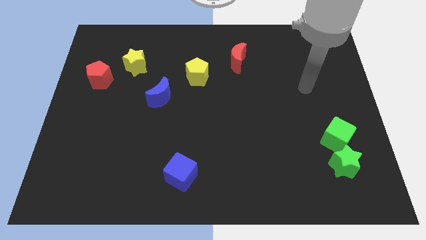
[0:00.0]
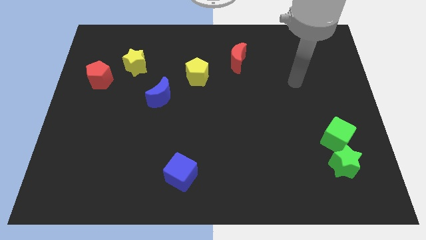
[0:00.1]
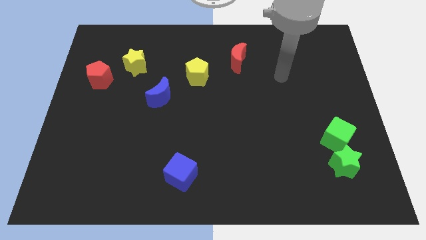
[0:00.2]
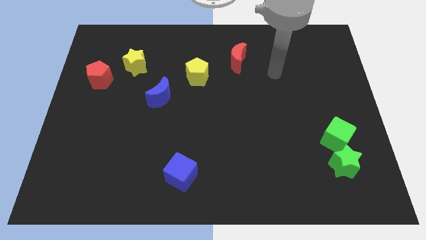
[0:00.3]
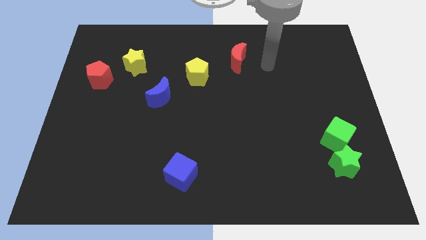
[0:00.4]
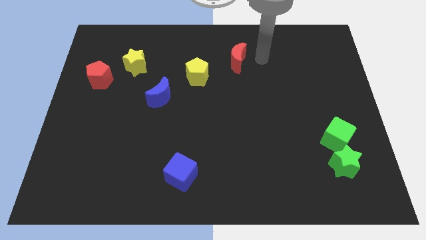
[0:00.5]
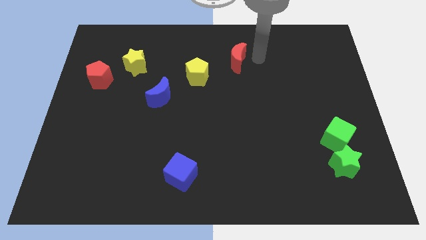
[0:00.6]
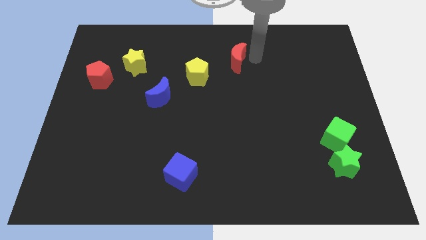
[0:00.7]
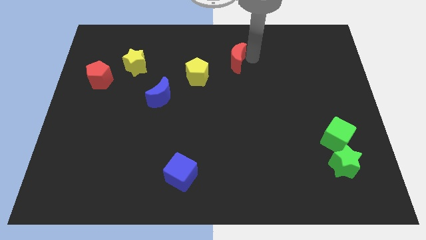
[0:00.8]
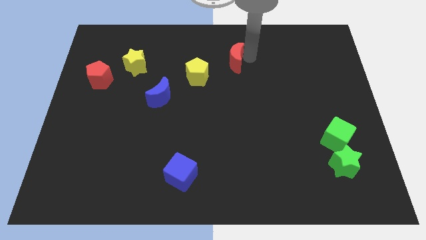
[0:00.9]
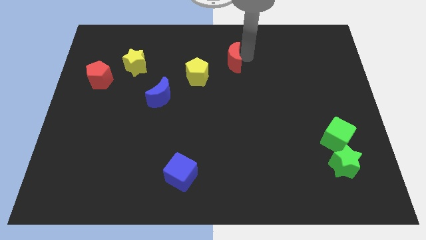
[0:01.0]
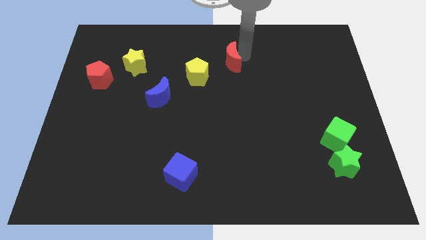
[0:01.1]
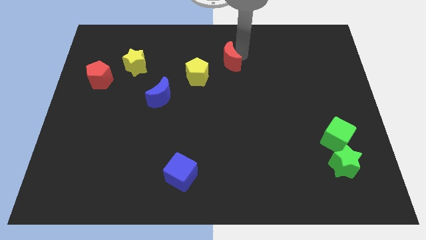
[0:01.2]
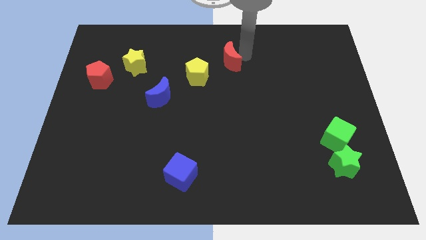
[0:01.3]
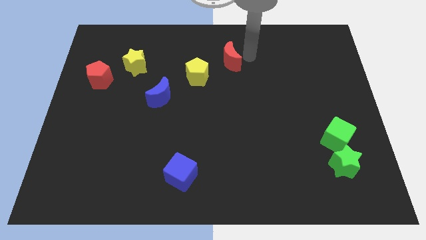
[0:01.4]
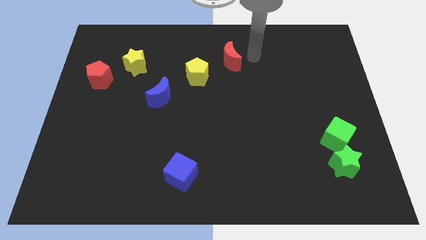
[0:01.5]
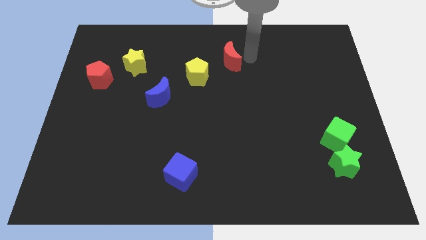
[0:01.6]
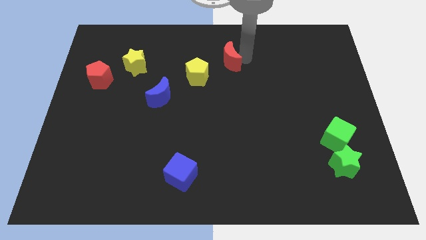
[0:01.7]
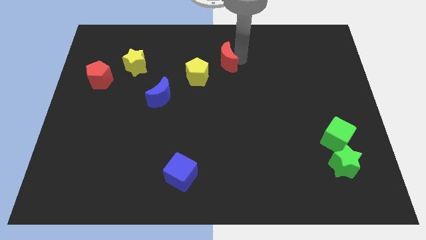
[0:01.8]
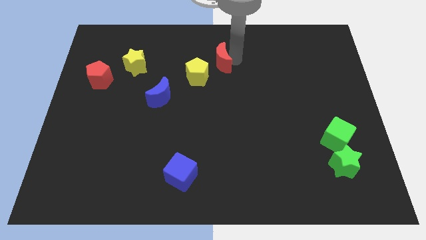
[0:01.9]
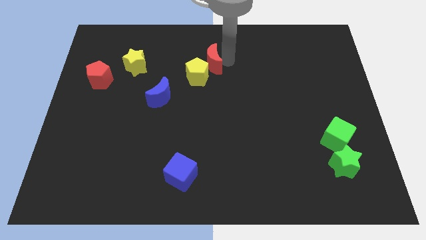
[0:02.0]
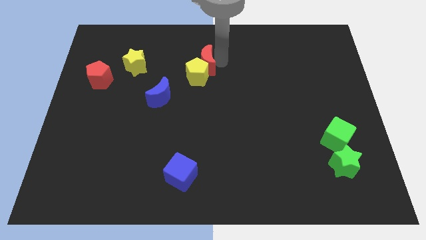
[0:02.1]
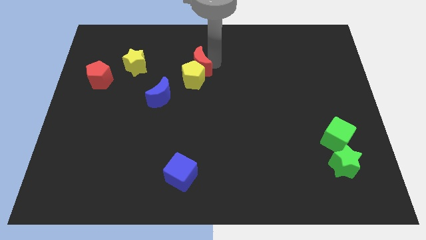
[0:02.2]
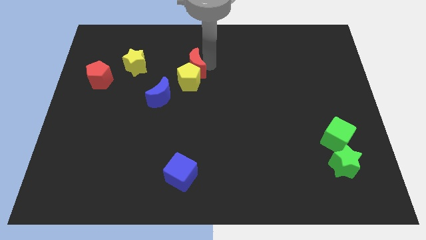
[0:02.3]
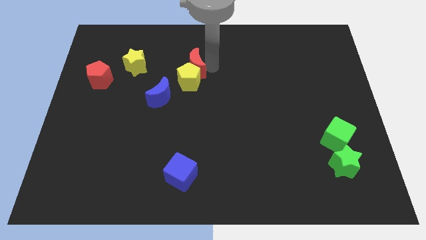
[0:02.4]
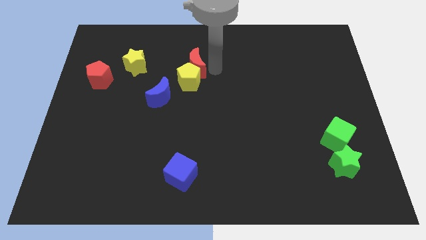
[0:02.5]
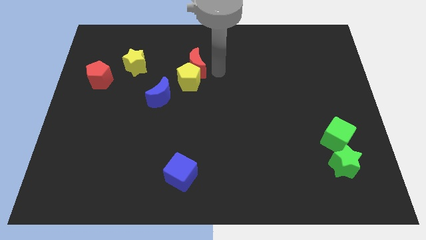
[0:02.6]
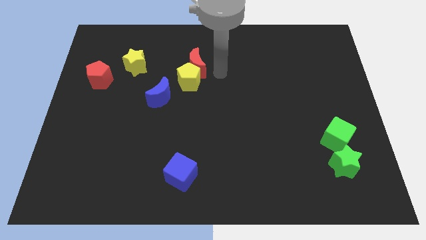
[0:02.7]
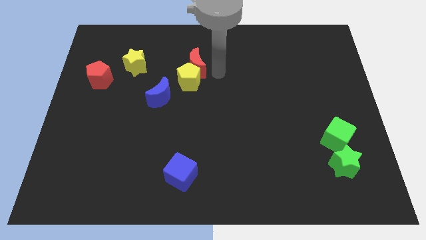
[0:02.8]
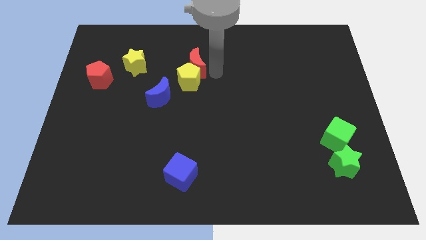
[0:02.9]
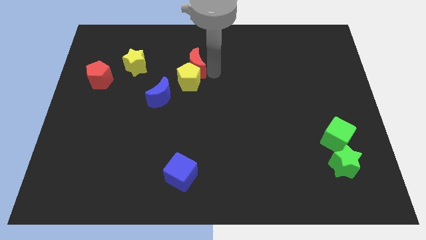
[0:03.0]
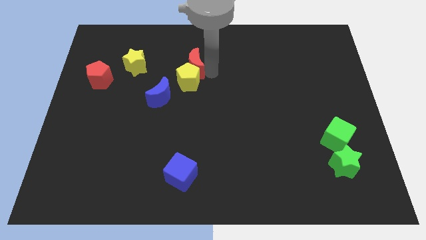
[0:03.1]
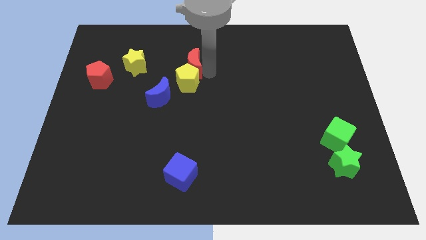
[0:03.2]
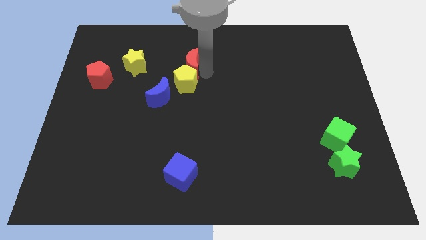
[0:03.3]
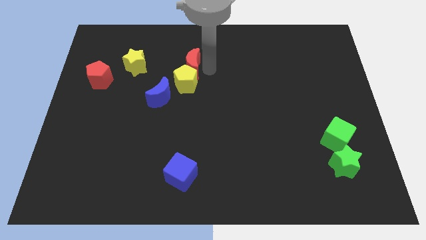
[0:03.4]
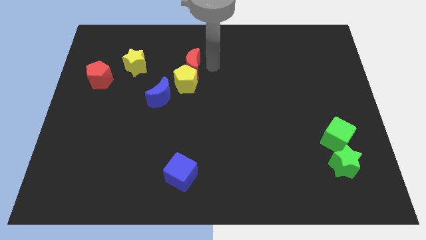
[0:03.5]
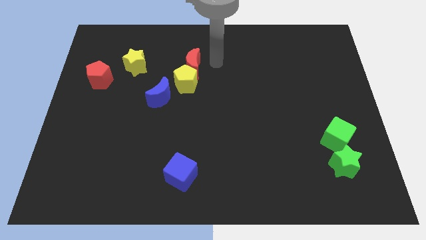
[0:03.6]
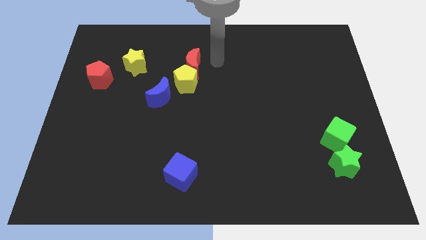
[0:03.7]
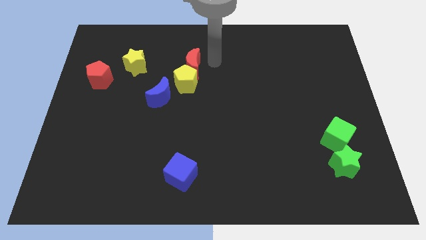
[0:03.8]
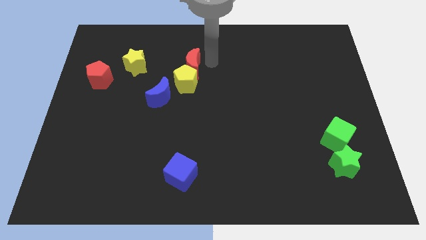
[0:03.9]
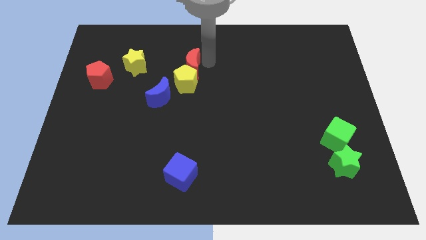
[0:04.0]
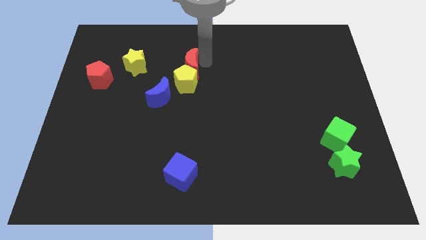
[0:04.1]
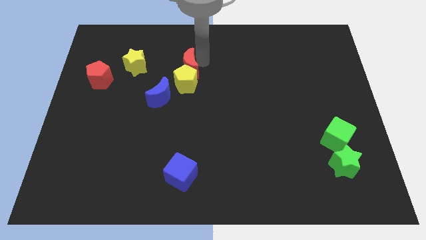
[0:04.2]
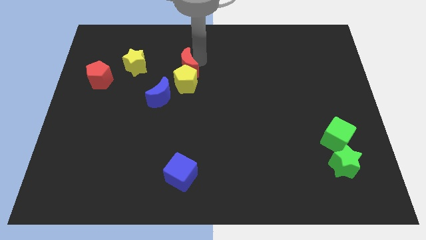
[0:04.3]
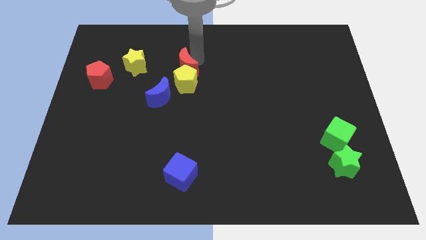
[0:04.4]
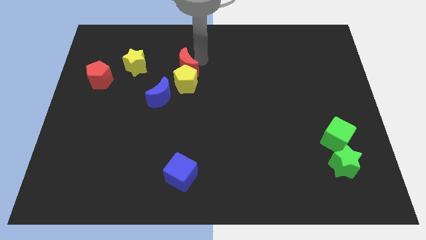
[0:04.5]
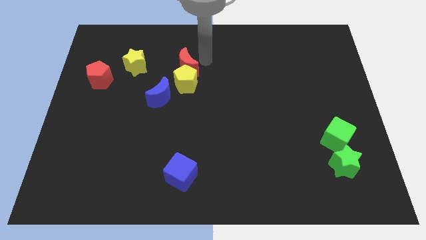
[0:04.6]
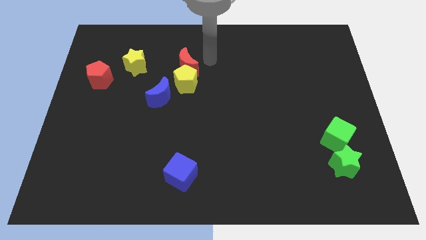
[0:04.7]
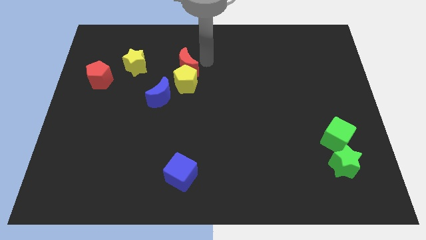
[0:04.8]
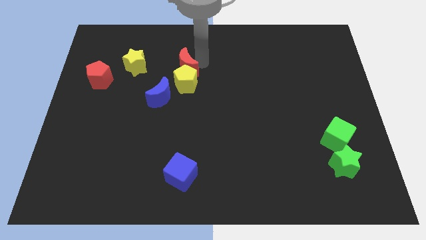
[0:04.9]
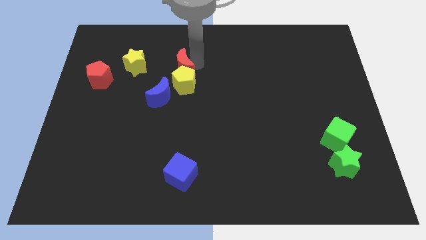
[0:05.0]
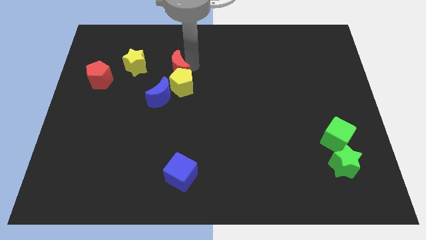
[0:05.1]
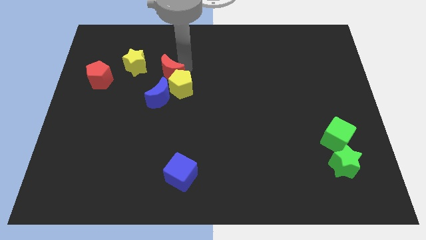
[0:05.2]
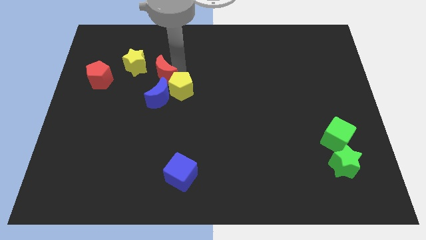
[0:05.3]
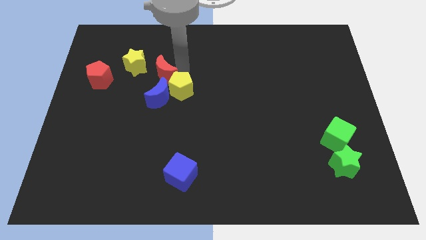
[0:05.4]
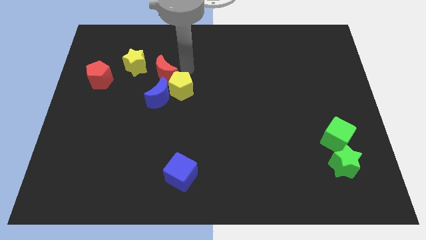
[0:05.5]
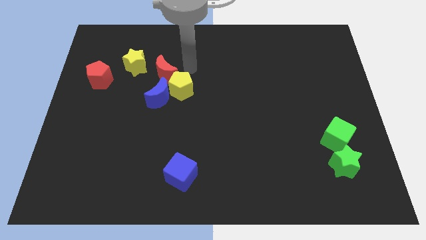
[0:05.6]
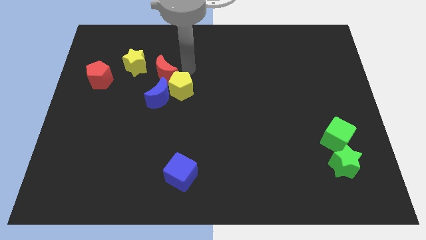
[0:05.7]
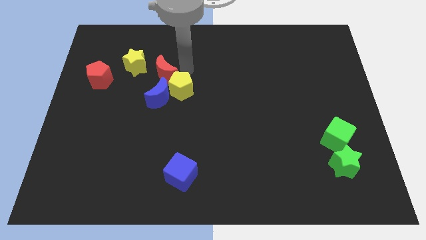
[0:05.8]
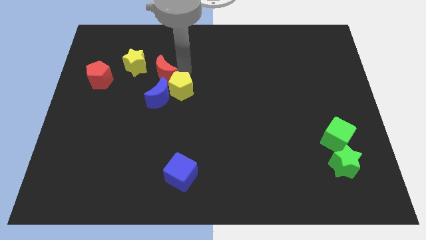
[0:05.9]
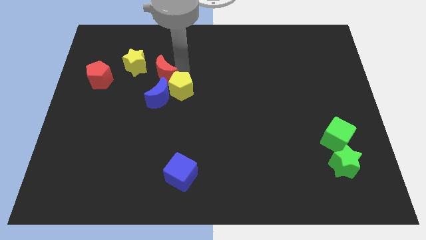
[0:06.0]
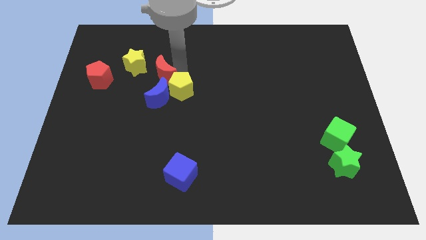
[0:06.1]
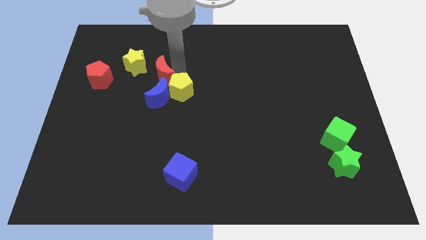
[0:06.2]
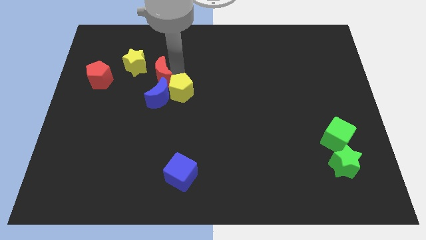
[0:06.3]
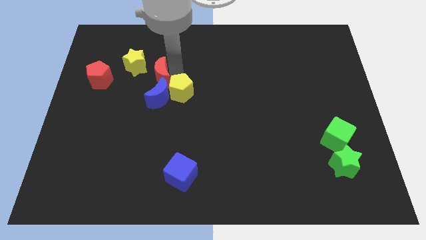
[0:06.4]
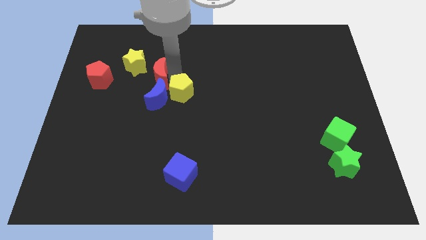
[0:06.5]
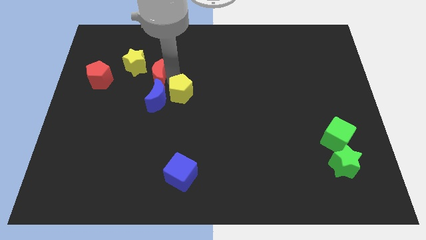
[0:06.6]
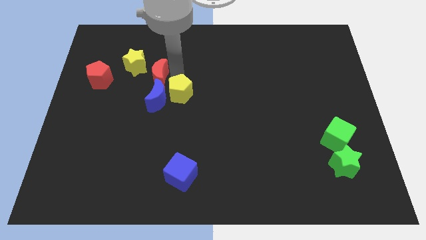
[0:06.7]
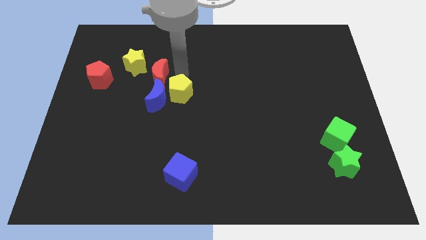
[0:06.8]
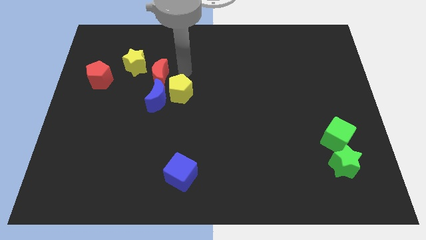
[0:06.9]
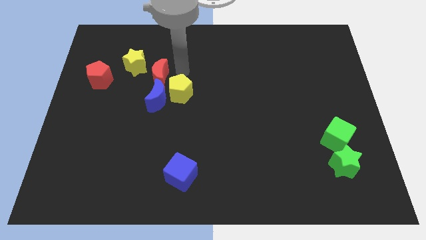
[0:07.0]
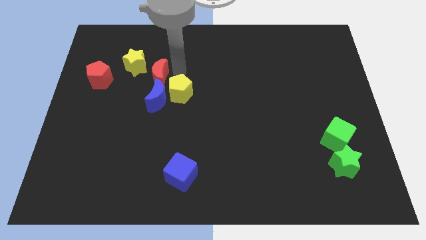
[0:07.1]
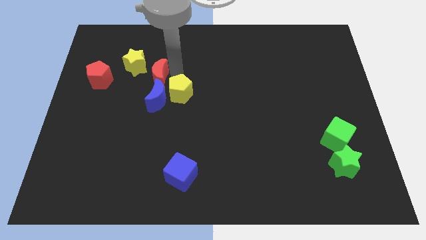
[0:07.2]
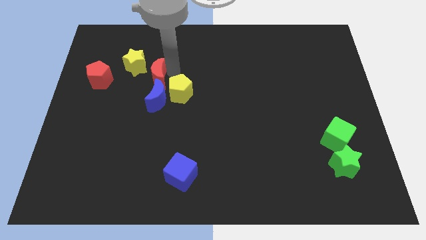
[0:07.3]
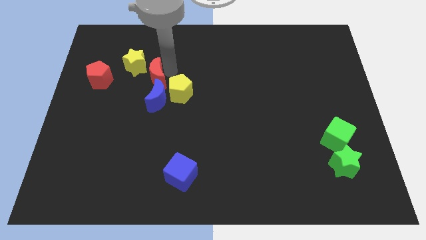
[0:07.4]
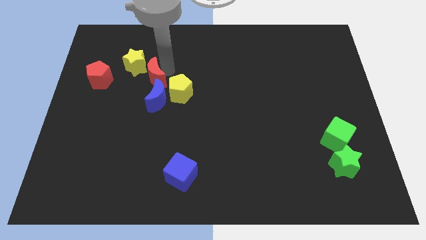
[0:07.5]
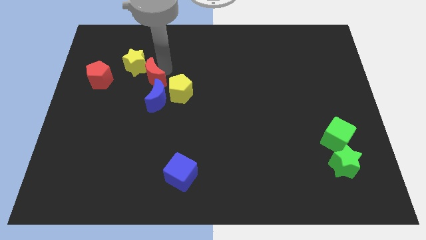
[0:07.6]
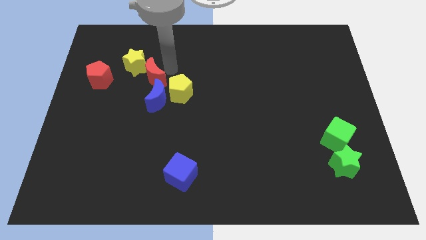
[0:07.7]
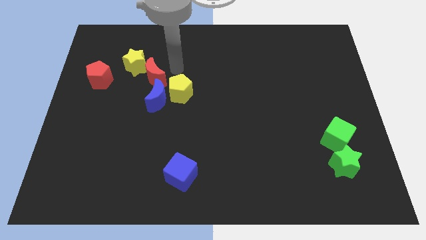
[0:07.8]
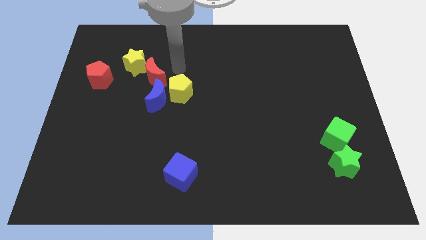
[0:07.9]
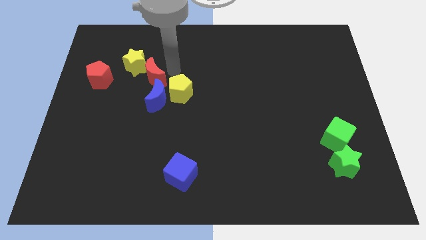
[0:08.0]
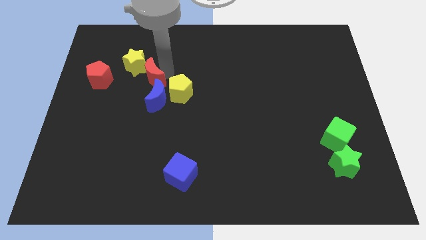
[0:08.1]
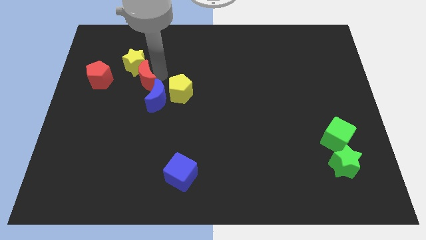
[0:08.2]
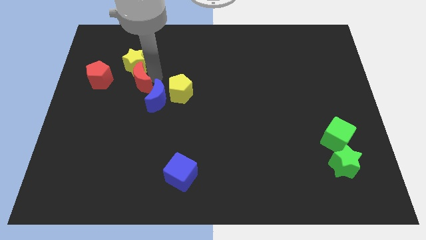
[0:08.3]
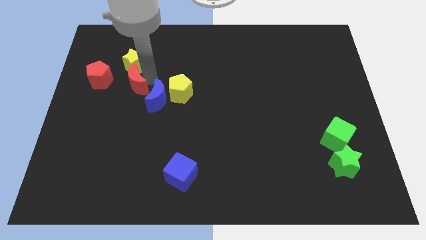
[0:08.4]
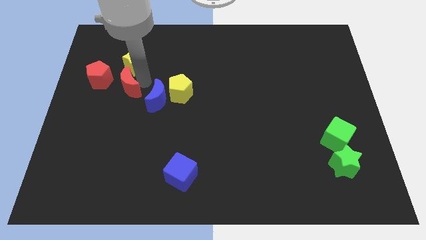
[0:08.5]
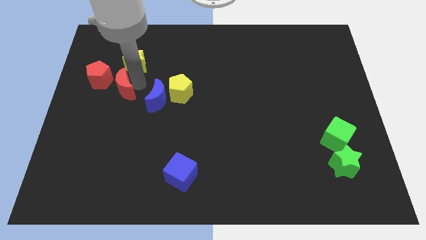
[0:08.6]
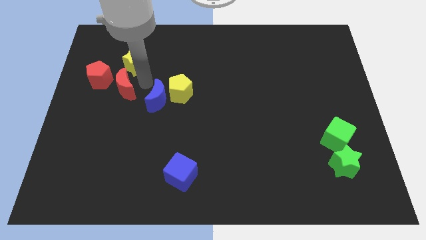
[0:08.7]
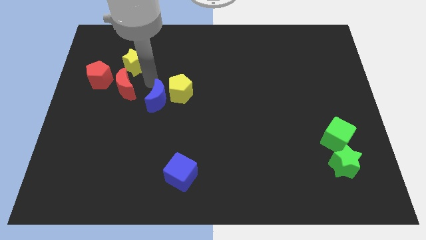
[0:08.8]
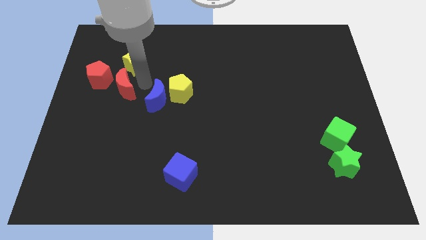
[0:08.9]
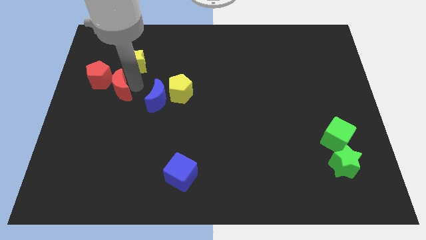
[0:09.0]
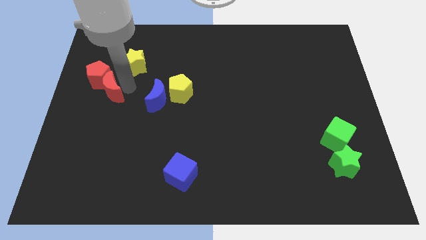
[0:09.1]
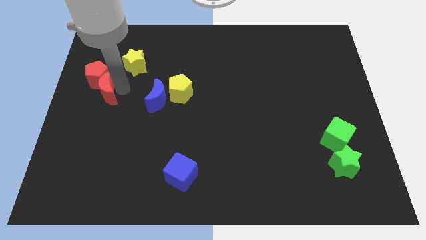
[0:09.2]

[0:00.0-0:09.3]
put the red moon to the left side
